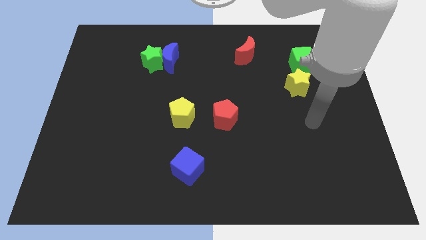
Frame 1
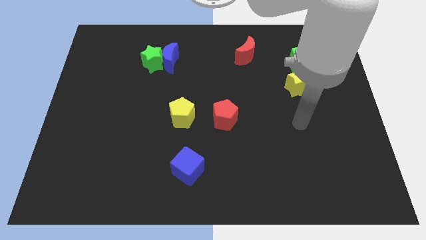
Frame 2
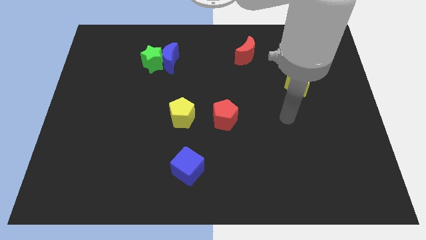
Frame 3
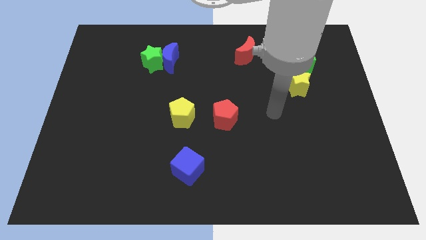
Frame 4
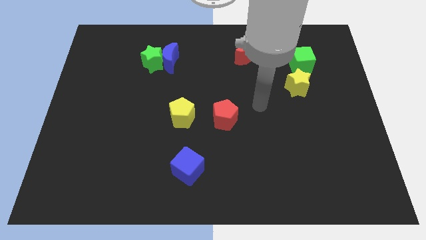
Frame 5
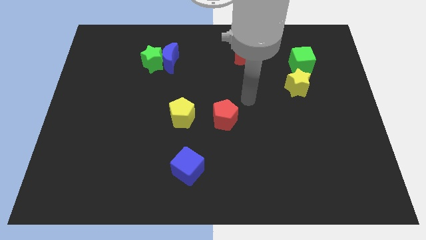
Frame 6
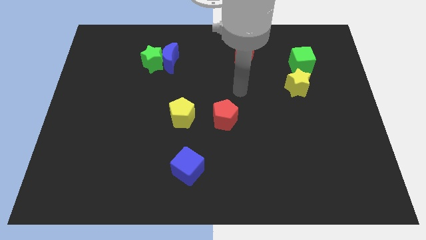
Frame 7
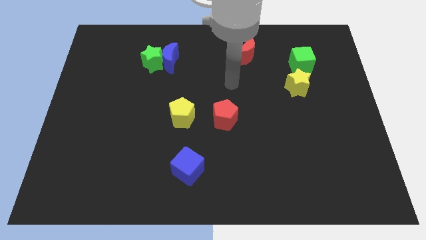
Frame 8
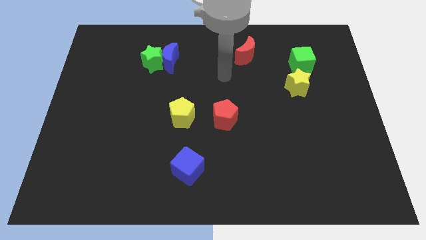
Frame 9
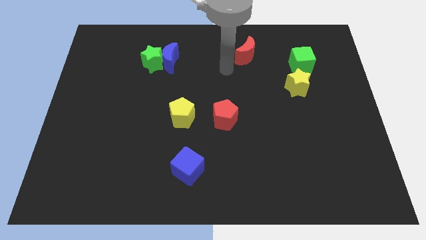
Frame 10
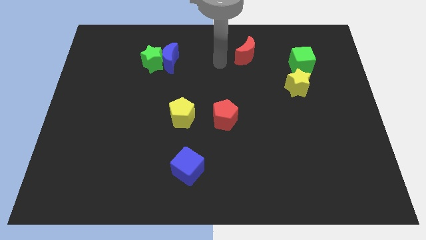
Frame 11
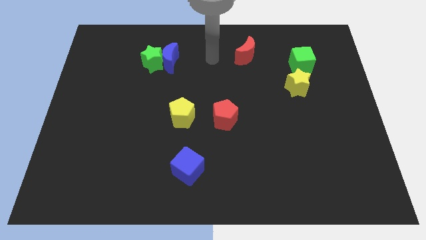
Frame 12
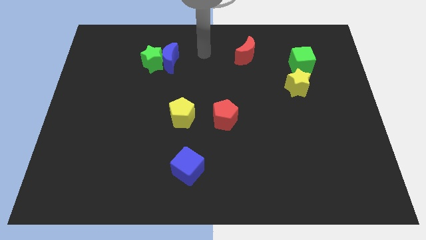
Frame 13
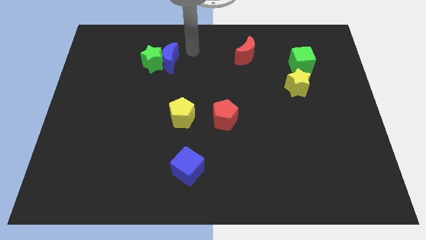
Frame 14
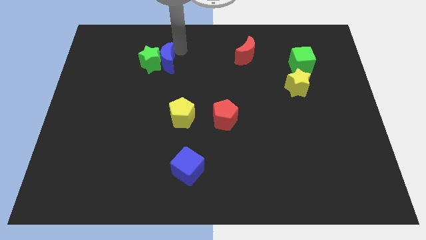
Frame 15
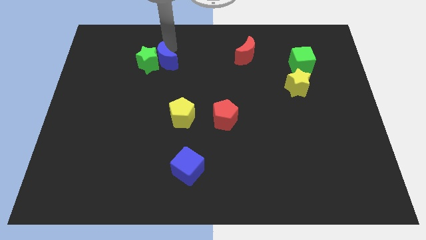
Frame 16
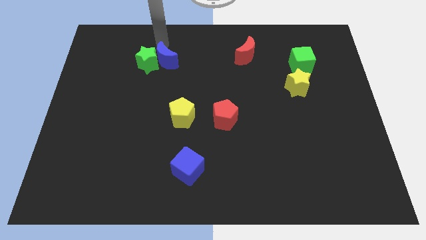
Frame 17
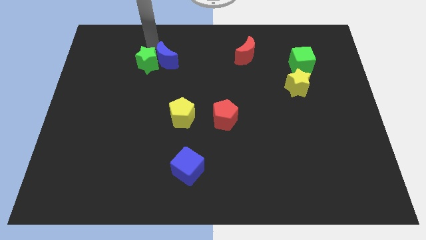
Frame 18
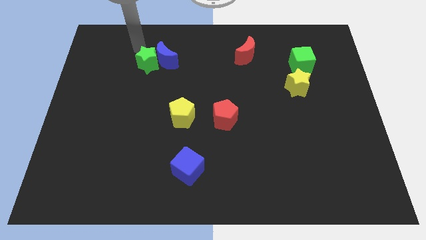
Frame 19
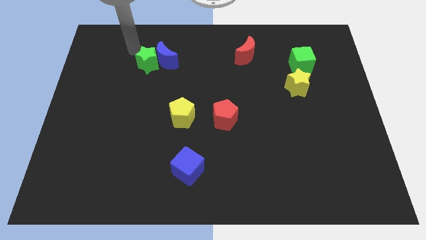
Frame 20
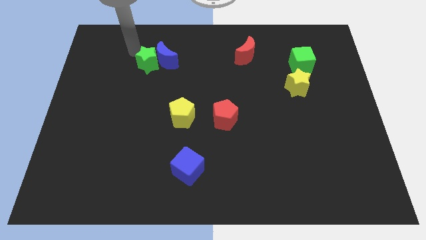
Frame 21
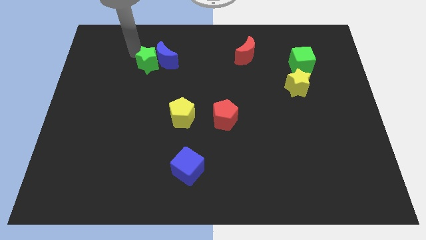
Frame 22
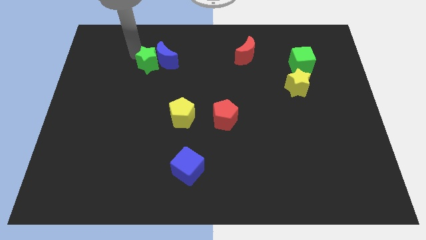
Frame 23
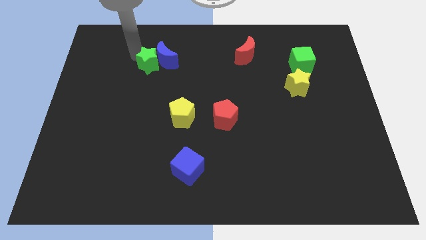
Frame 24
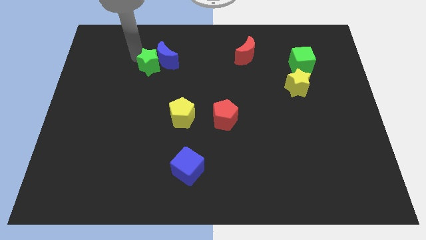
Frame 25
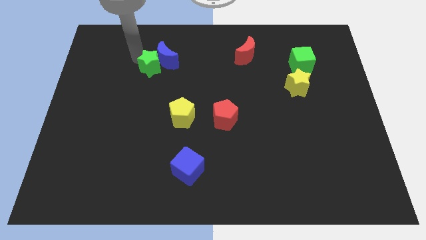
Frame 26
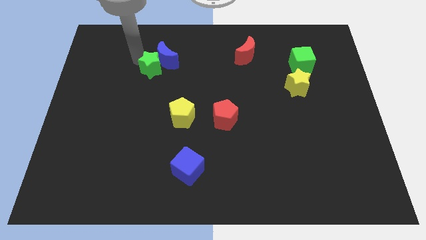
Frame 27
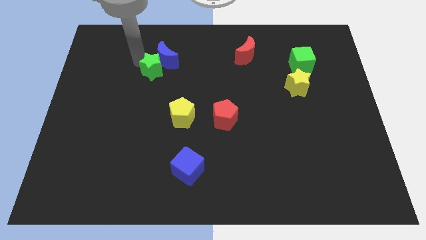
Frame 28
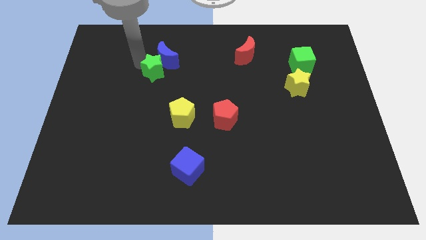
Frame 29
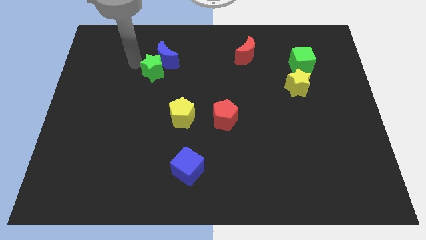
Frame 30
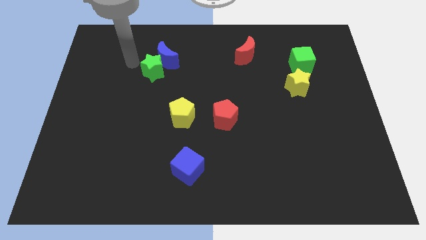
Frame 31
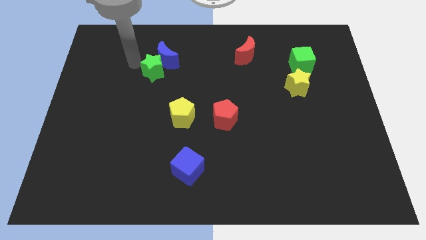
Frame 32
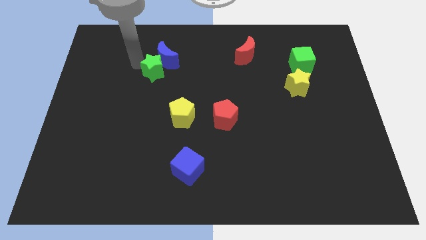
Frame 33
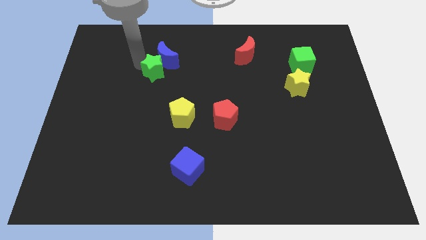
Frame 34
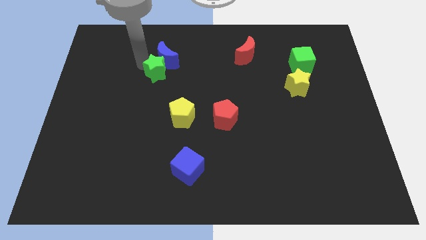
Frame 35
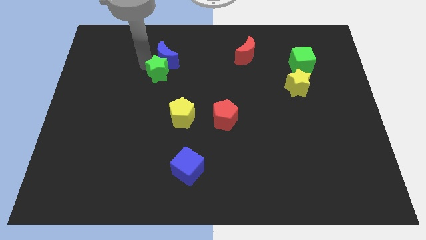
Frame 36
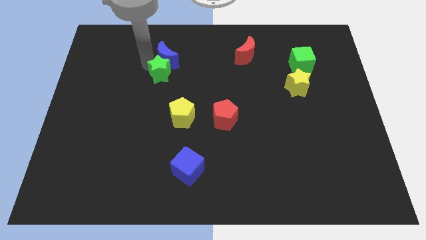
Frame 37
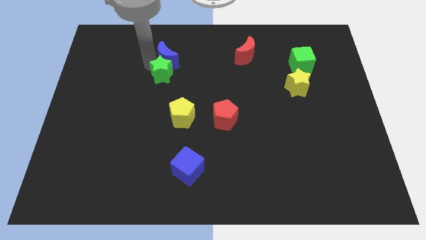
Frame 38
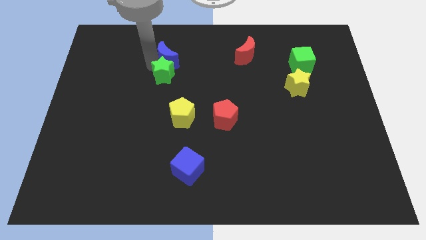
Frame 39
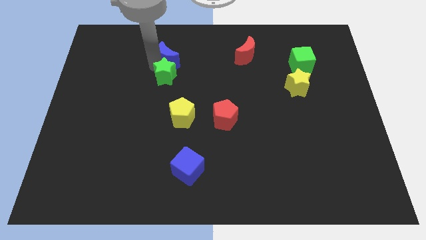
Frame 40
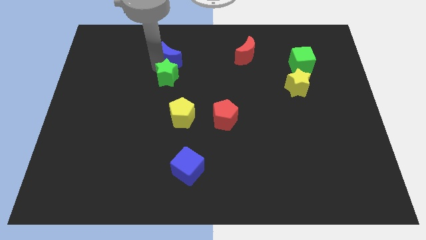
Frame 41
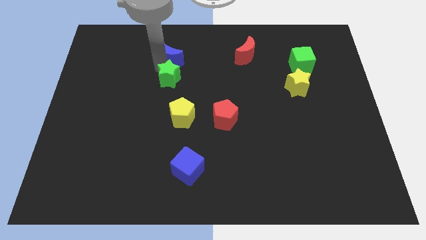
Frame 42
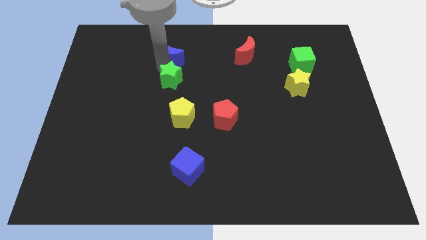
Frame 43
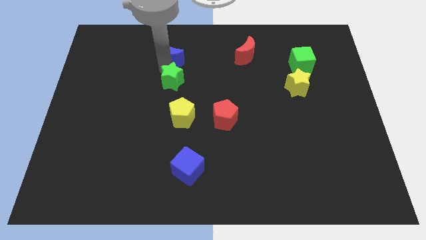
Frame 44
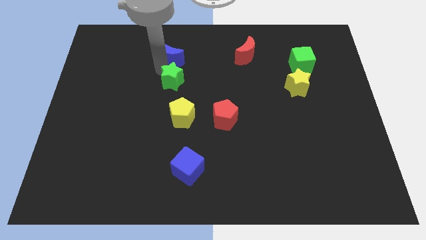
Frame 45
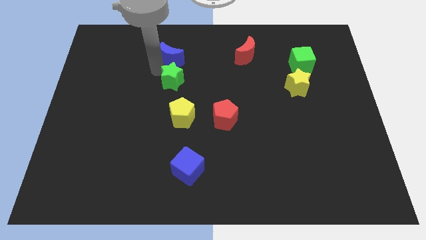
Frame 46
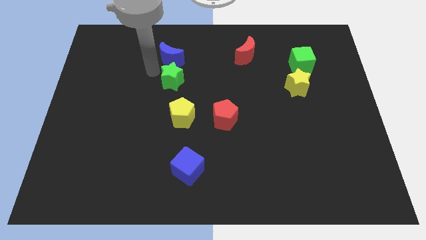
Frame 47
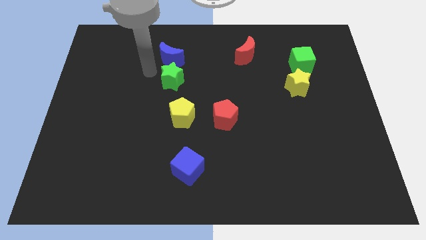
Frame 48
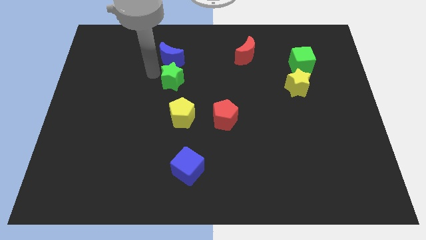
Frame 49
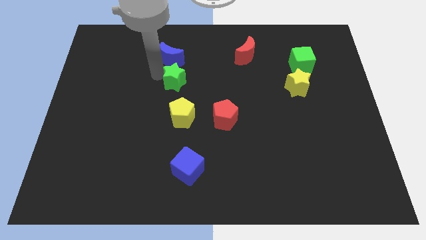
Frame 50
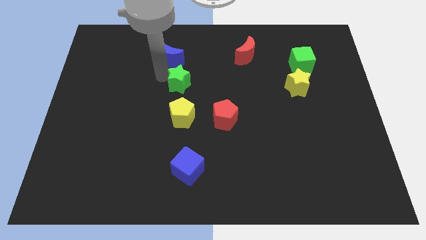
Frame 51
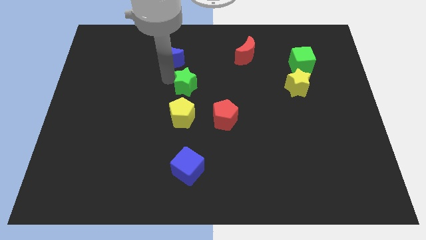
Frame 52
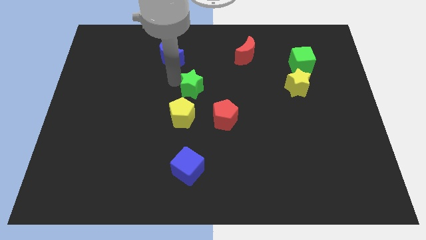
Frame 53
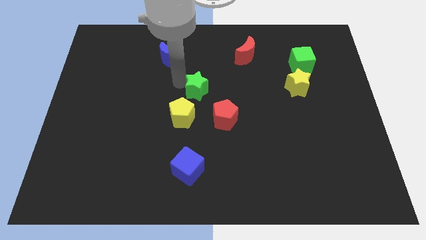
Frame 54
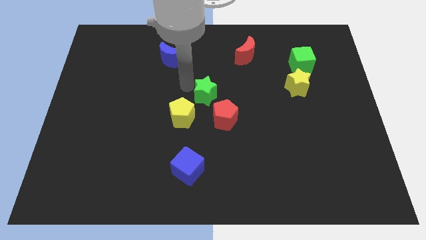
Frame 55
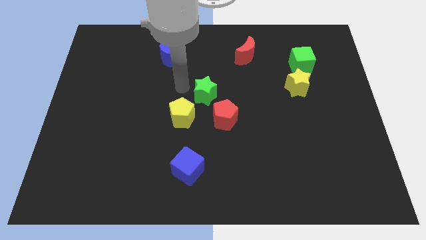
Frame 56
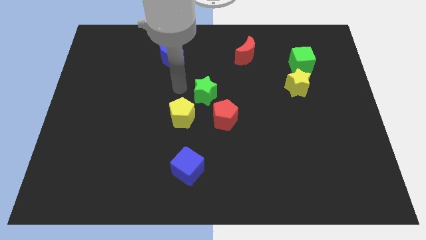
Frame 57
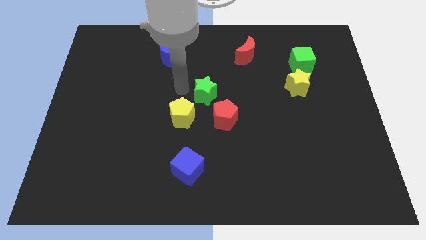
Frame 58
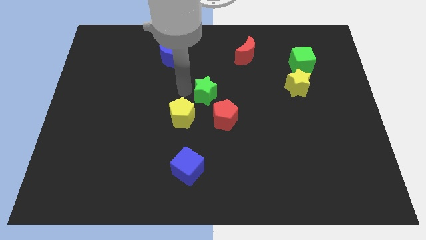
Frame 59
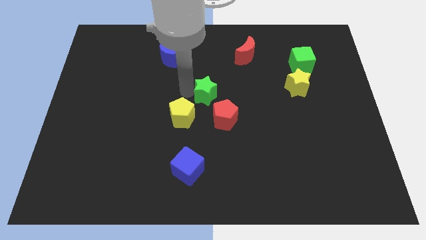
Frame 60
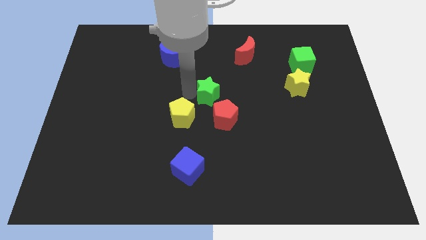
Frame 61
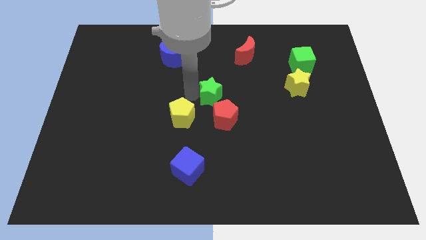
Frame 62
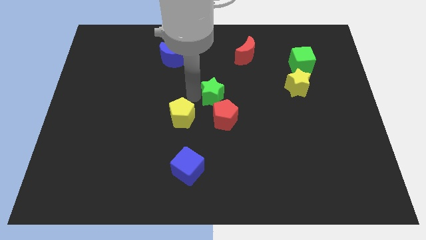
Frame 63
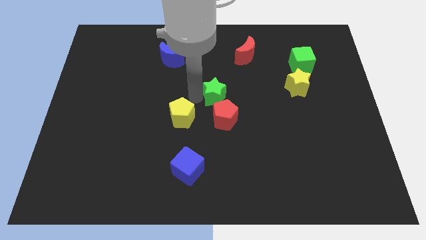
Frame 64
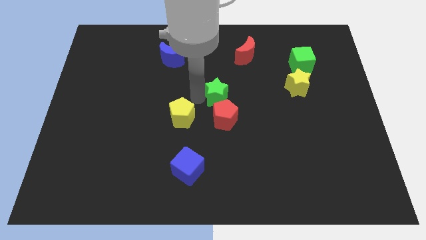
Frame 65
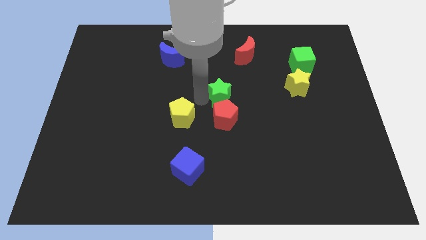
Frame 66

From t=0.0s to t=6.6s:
push the green star downwards and then to the right

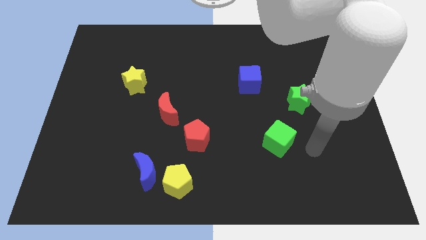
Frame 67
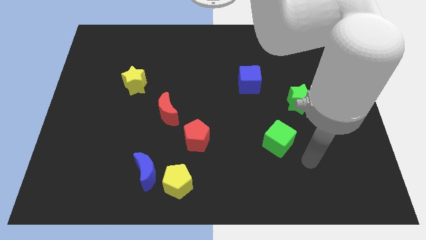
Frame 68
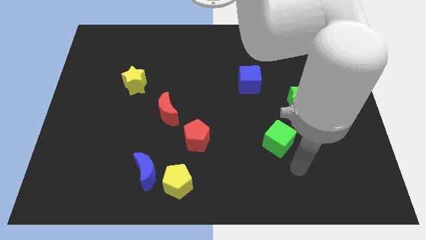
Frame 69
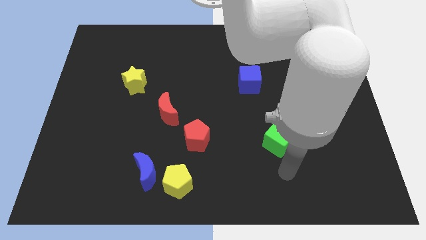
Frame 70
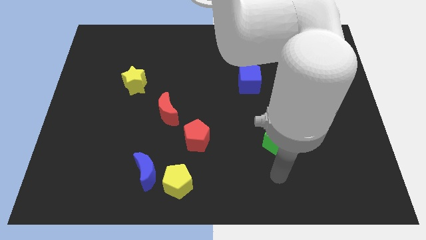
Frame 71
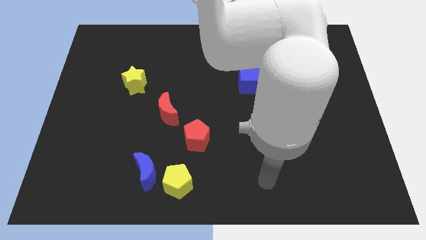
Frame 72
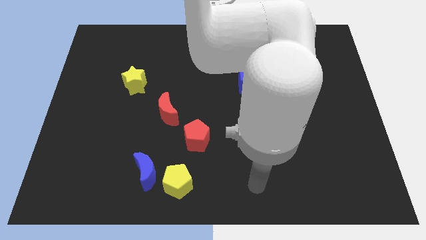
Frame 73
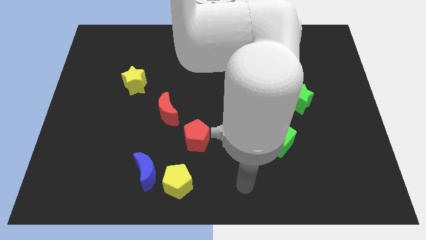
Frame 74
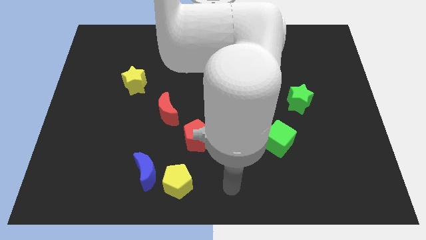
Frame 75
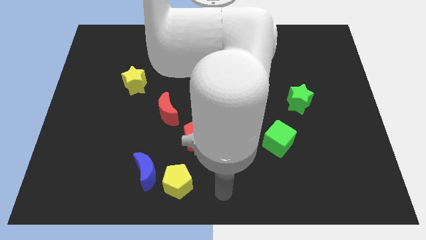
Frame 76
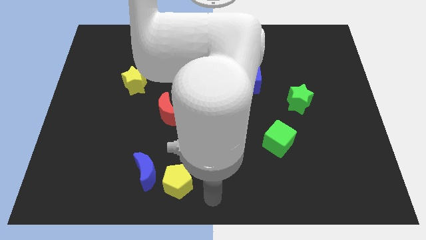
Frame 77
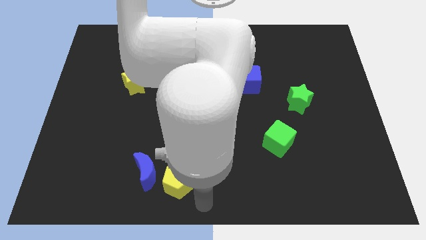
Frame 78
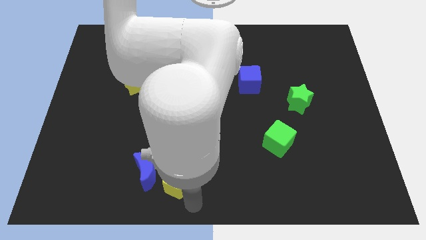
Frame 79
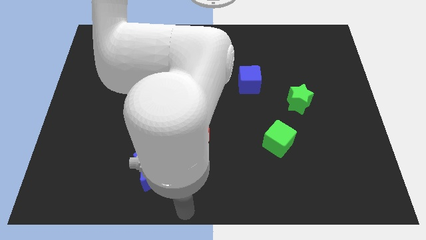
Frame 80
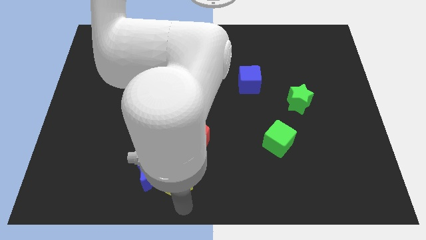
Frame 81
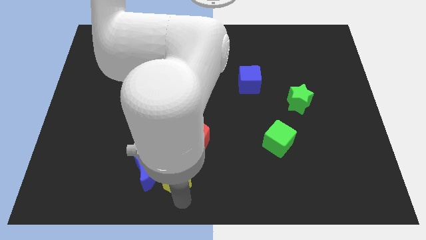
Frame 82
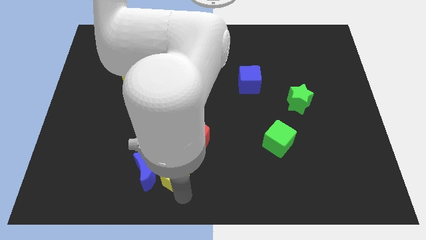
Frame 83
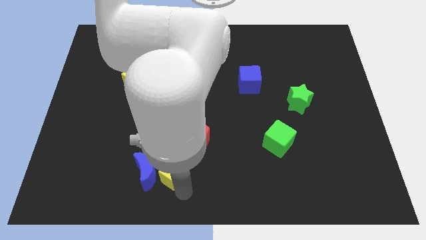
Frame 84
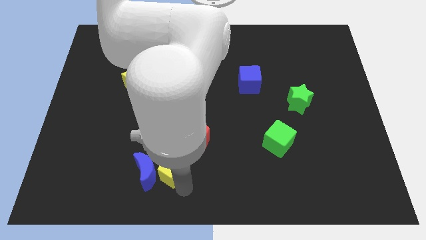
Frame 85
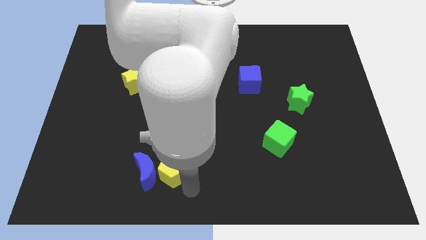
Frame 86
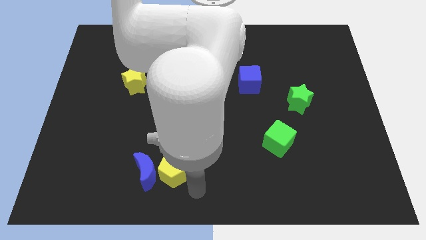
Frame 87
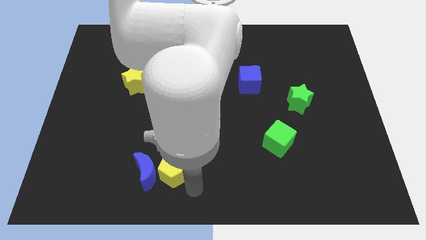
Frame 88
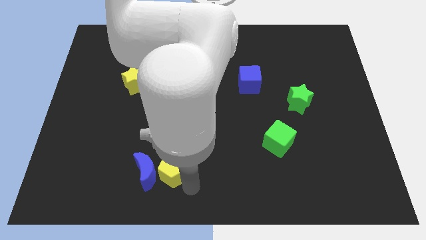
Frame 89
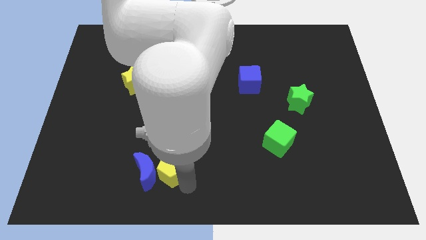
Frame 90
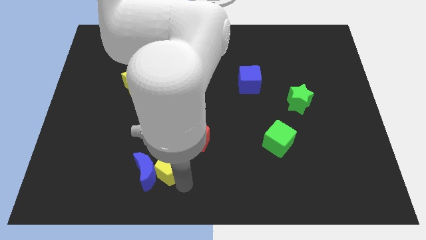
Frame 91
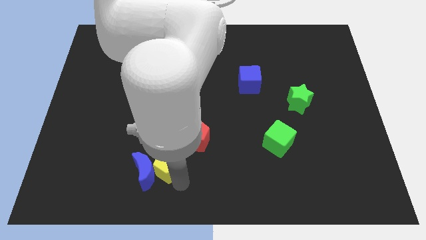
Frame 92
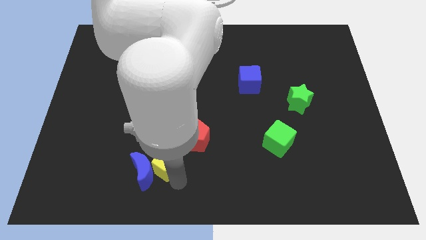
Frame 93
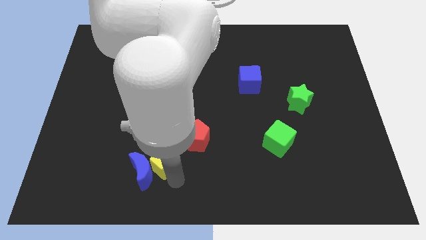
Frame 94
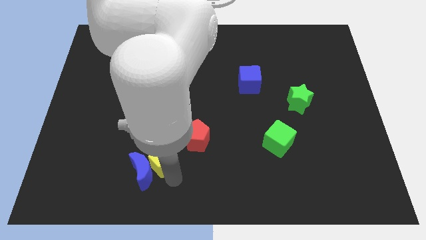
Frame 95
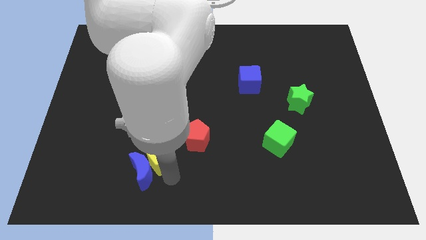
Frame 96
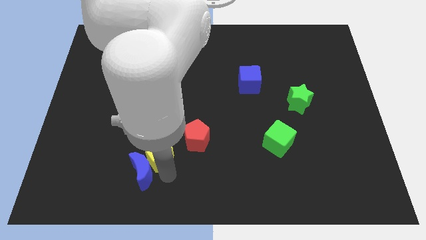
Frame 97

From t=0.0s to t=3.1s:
push the yellow pentagon somewhat upwards and left
